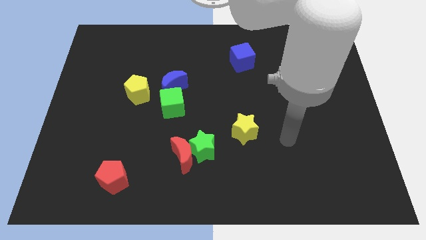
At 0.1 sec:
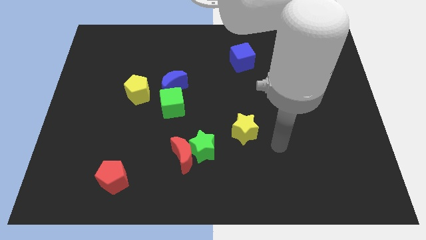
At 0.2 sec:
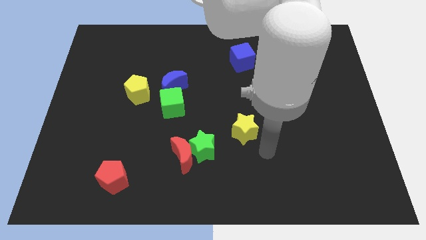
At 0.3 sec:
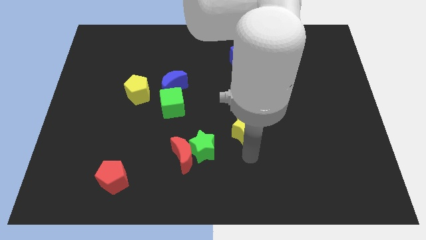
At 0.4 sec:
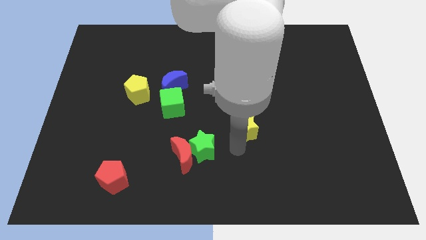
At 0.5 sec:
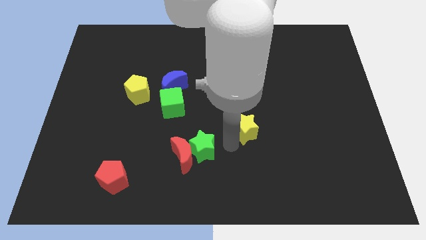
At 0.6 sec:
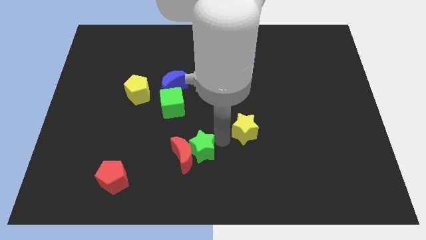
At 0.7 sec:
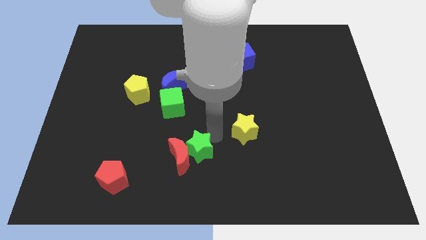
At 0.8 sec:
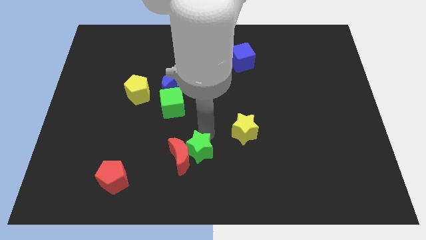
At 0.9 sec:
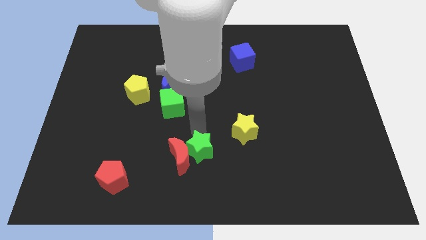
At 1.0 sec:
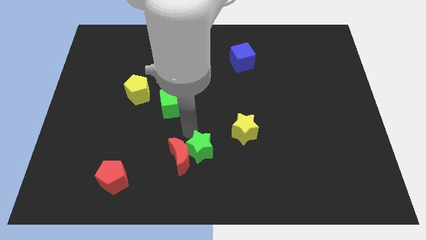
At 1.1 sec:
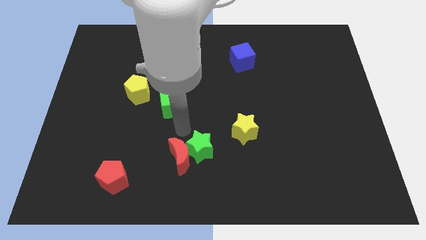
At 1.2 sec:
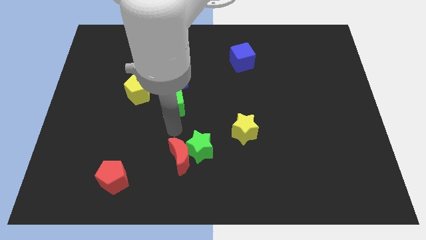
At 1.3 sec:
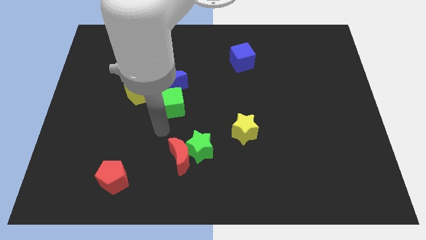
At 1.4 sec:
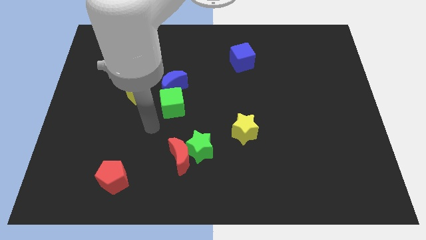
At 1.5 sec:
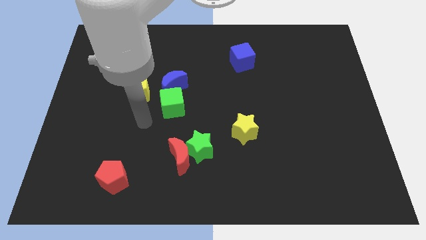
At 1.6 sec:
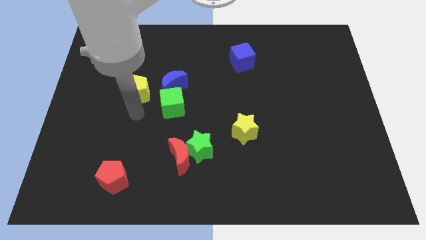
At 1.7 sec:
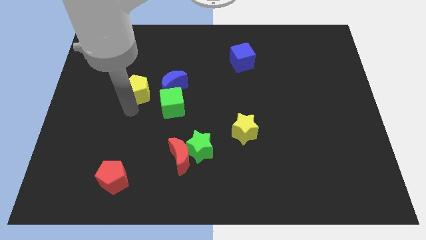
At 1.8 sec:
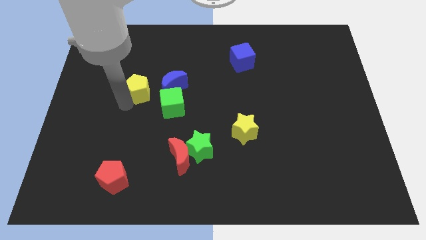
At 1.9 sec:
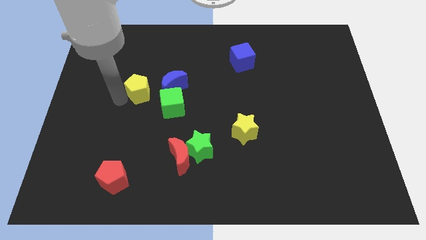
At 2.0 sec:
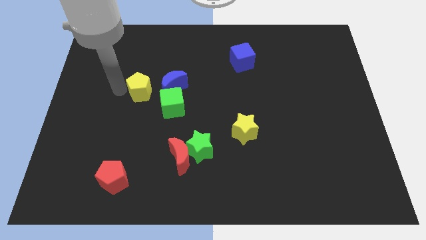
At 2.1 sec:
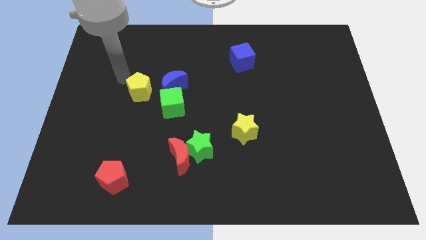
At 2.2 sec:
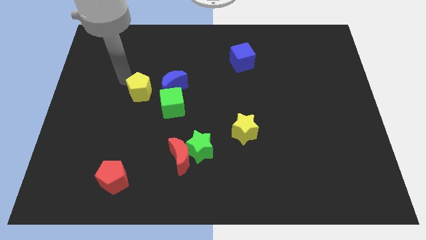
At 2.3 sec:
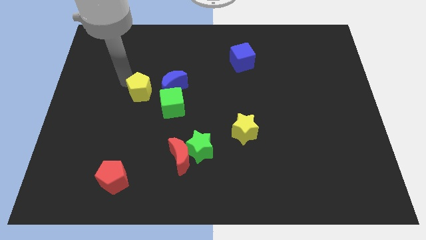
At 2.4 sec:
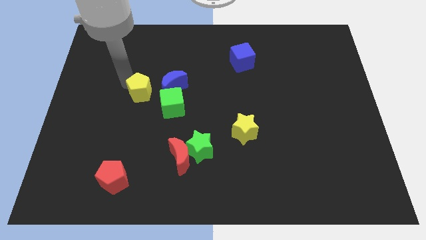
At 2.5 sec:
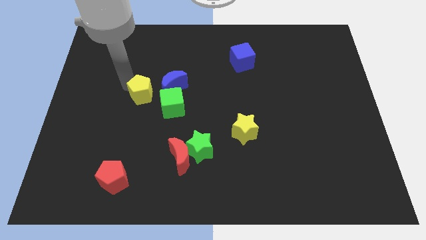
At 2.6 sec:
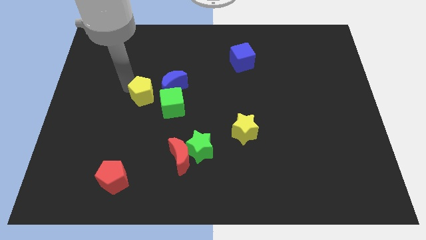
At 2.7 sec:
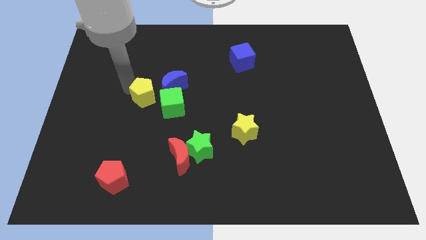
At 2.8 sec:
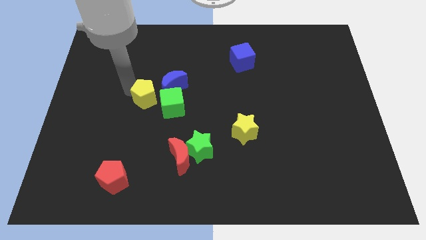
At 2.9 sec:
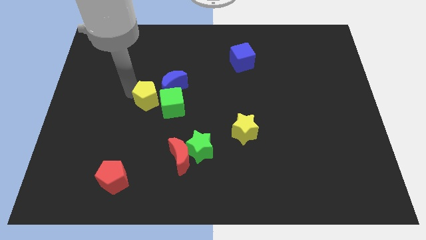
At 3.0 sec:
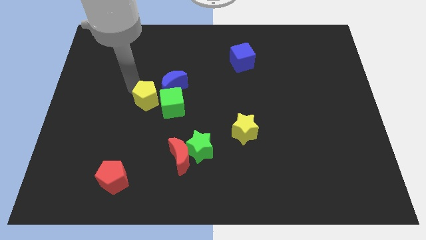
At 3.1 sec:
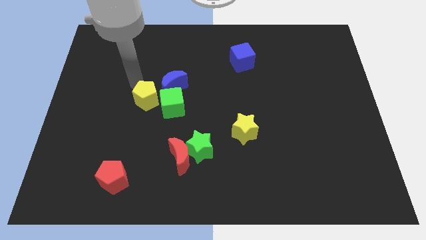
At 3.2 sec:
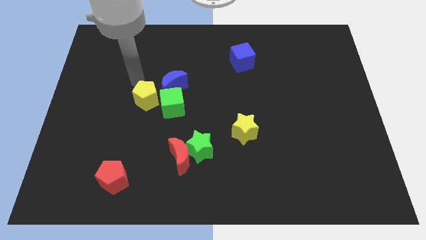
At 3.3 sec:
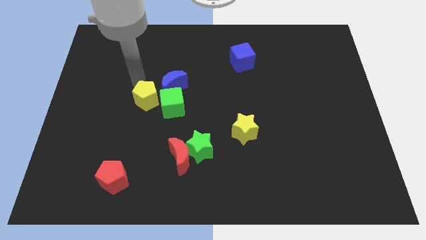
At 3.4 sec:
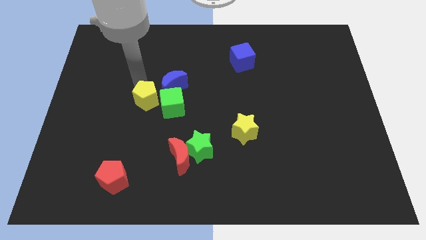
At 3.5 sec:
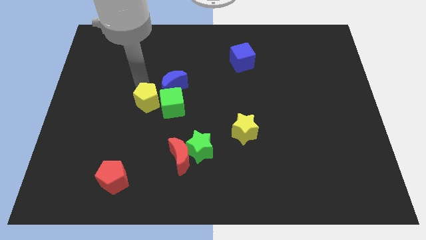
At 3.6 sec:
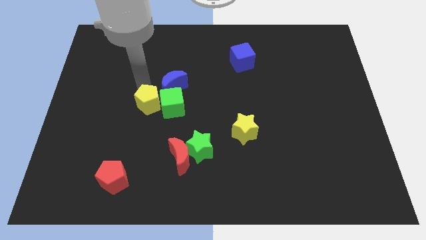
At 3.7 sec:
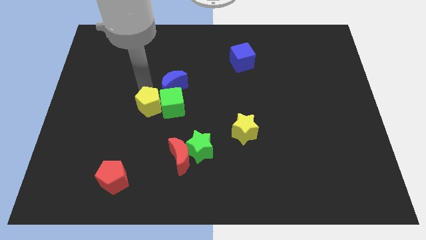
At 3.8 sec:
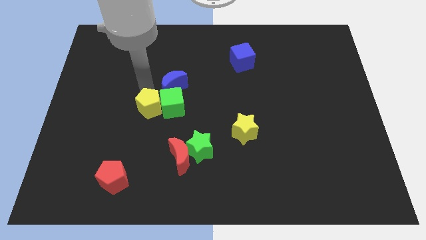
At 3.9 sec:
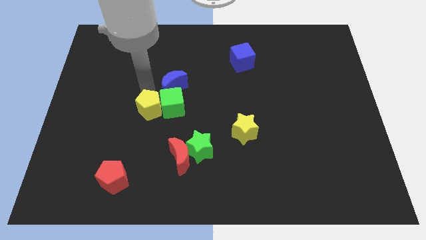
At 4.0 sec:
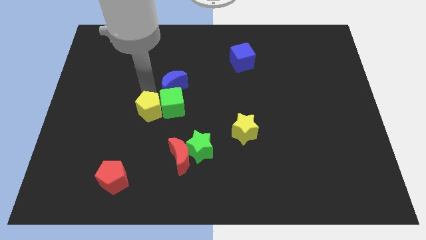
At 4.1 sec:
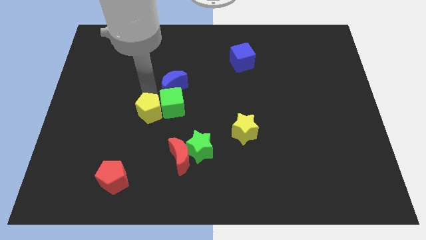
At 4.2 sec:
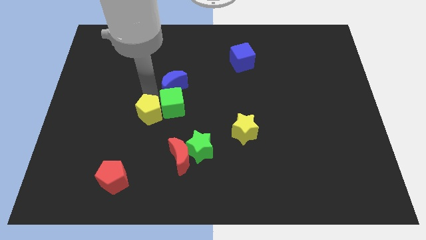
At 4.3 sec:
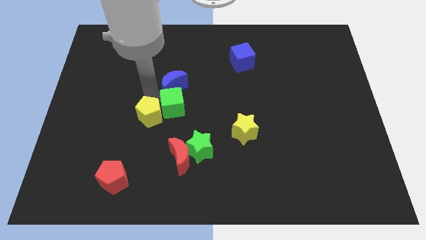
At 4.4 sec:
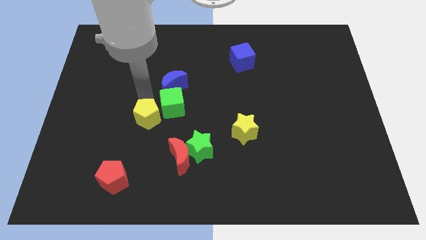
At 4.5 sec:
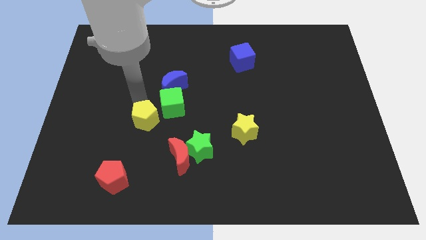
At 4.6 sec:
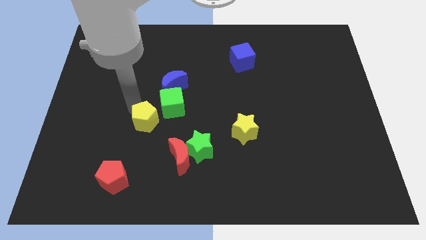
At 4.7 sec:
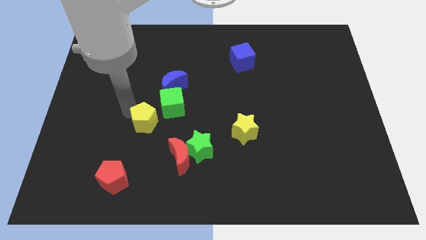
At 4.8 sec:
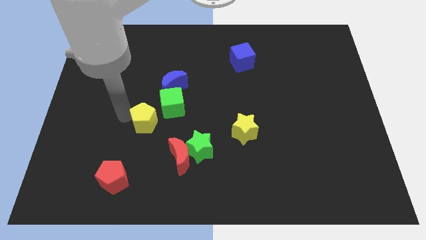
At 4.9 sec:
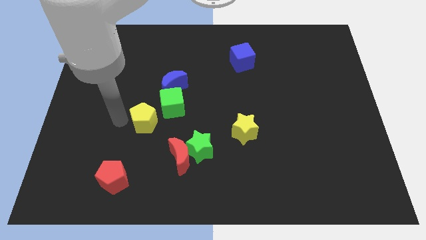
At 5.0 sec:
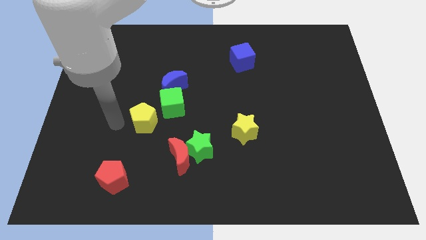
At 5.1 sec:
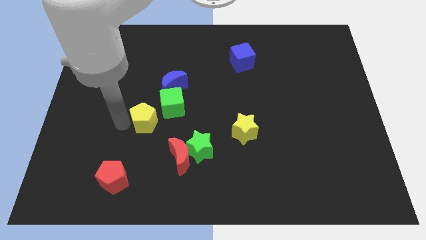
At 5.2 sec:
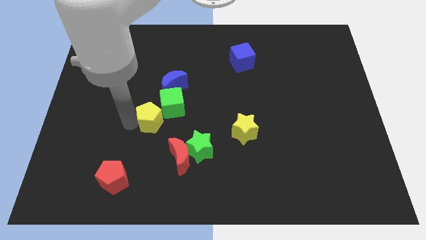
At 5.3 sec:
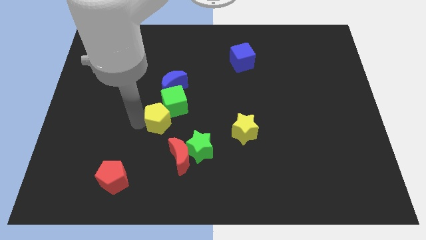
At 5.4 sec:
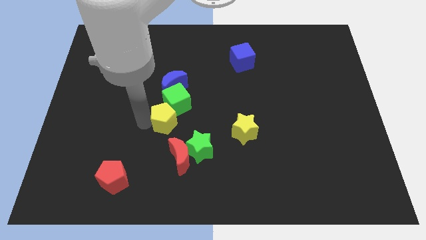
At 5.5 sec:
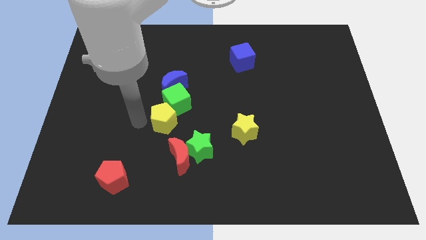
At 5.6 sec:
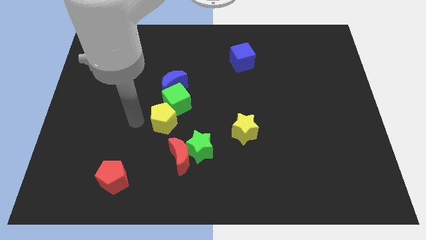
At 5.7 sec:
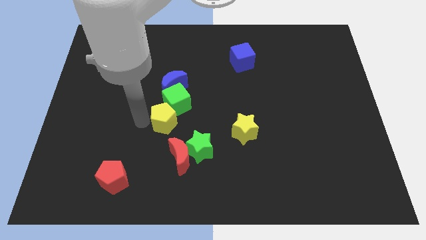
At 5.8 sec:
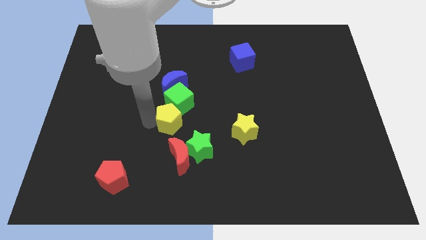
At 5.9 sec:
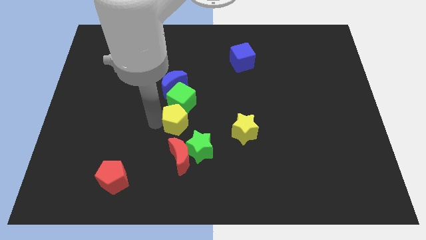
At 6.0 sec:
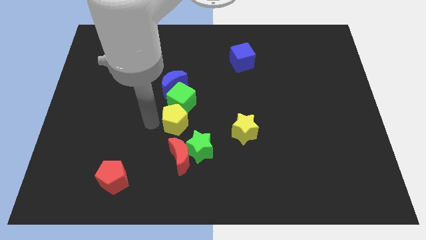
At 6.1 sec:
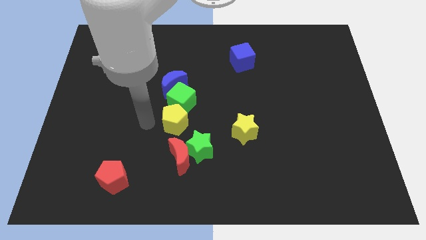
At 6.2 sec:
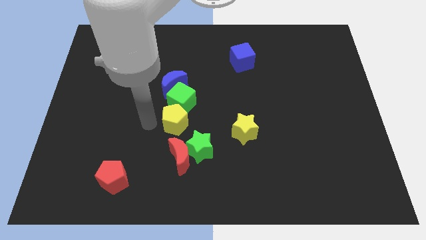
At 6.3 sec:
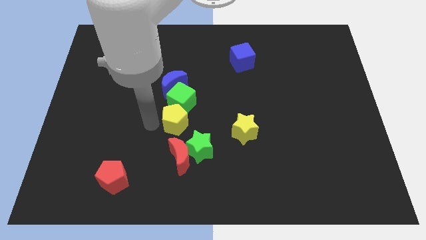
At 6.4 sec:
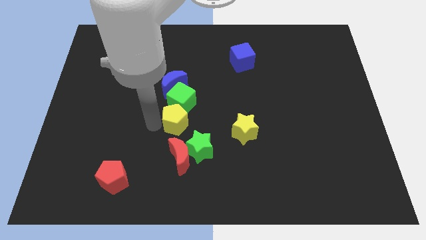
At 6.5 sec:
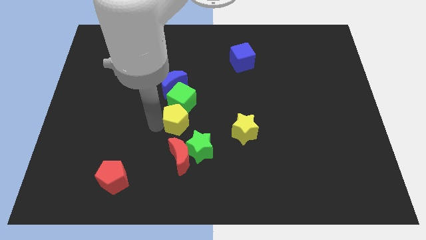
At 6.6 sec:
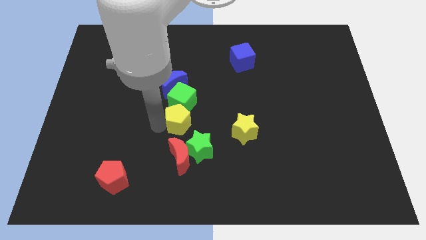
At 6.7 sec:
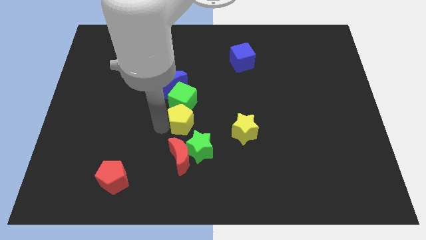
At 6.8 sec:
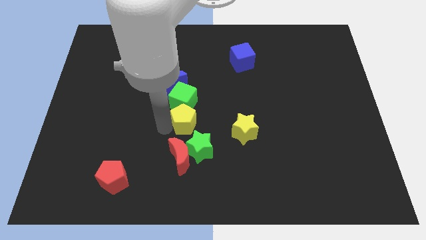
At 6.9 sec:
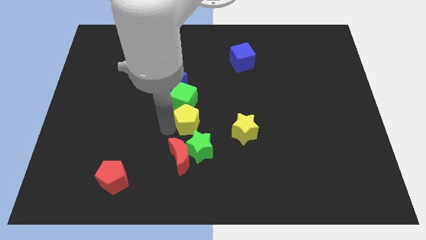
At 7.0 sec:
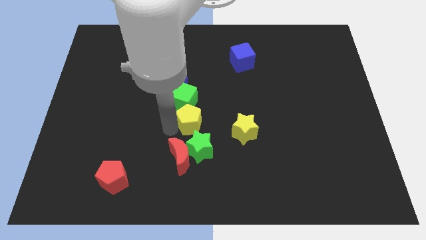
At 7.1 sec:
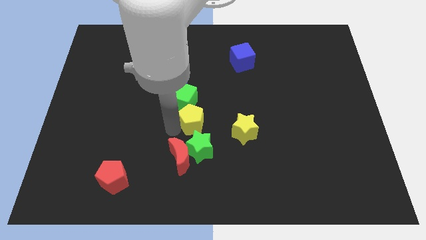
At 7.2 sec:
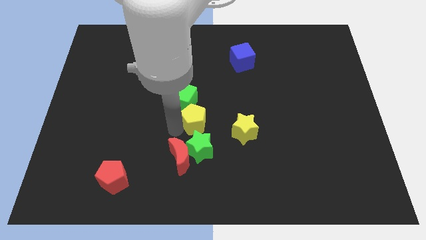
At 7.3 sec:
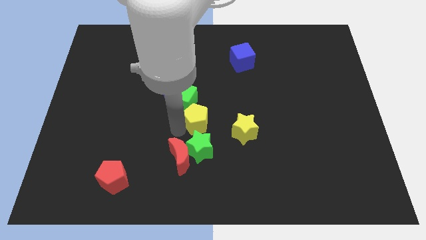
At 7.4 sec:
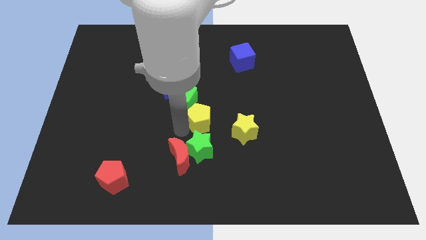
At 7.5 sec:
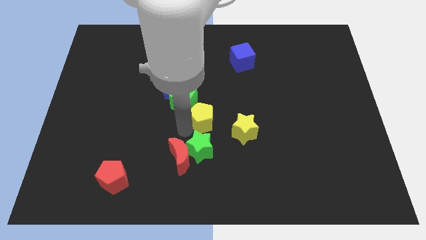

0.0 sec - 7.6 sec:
put the yellow pentagon diagonally up and to the left of the yellow star
